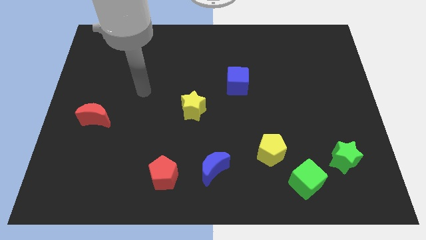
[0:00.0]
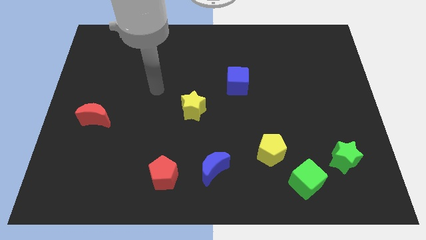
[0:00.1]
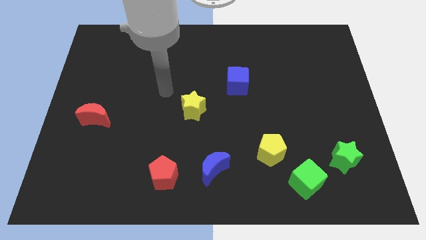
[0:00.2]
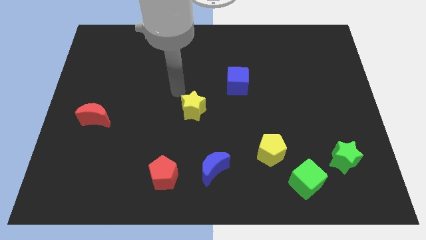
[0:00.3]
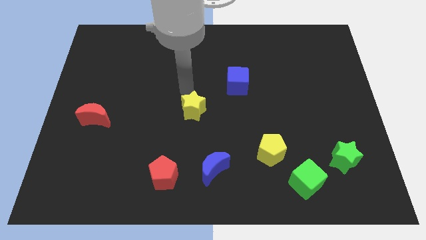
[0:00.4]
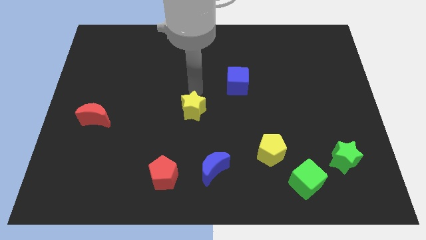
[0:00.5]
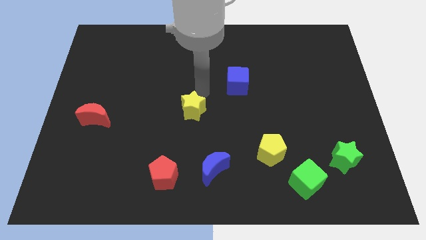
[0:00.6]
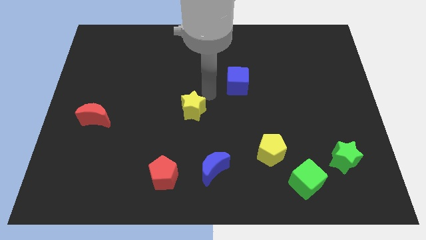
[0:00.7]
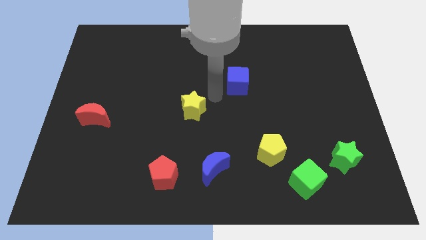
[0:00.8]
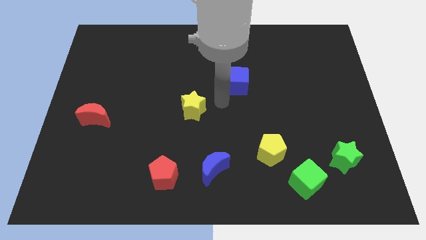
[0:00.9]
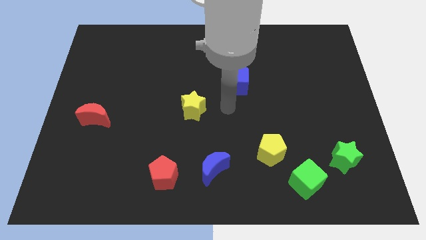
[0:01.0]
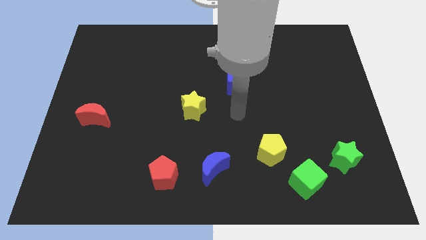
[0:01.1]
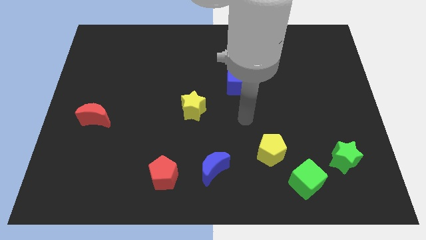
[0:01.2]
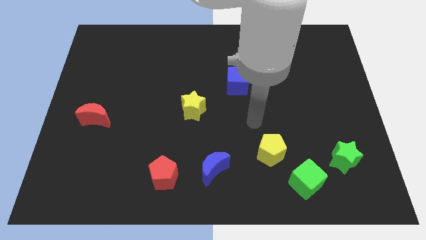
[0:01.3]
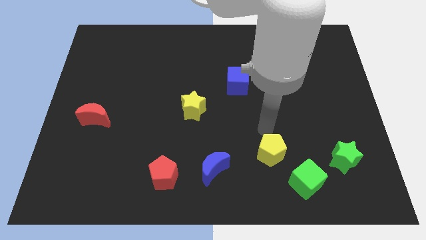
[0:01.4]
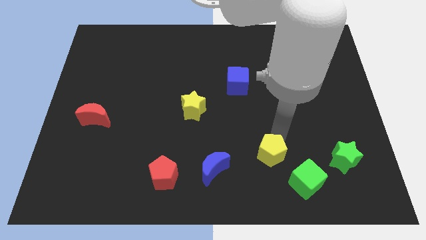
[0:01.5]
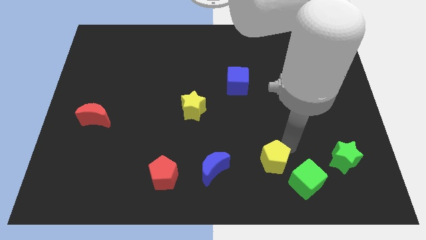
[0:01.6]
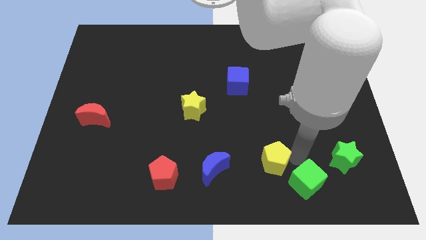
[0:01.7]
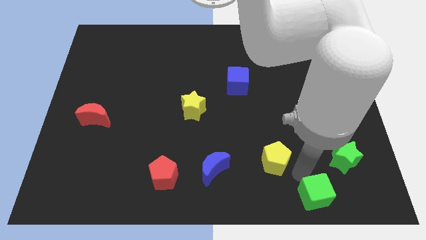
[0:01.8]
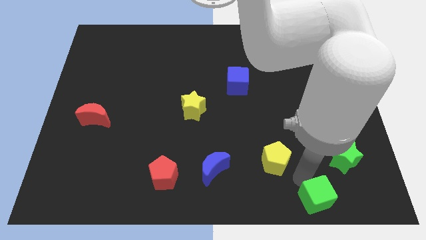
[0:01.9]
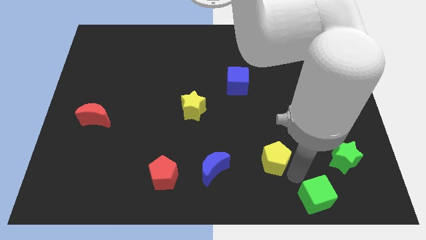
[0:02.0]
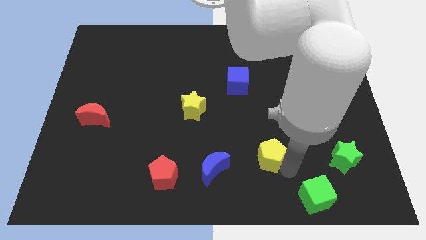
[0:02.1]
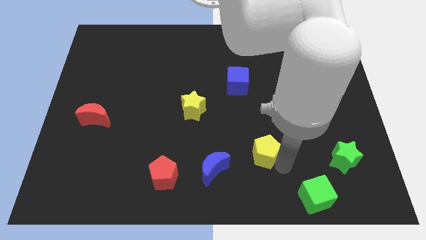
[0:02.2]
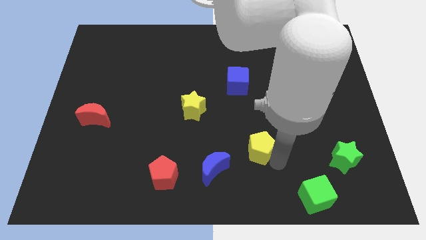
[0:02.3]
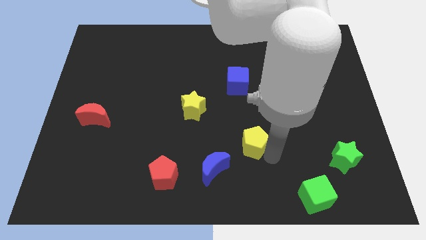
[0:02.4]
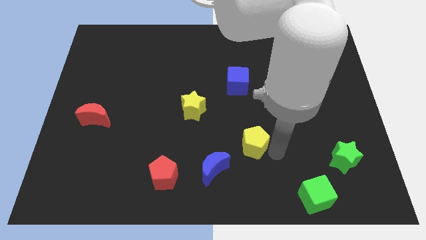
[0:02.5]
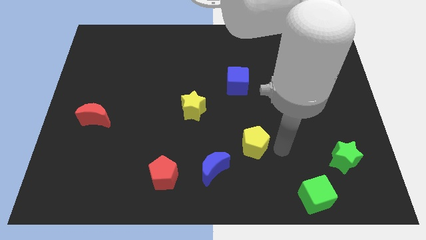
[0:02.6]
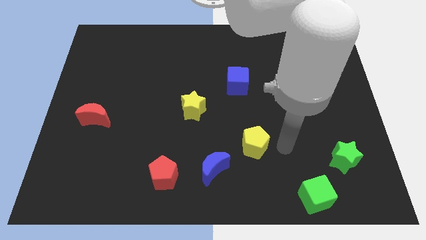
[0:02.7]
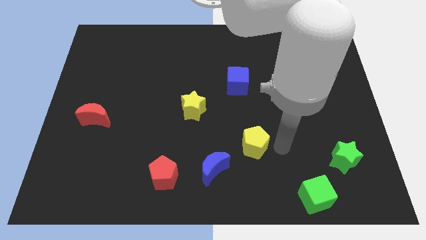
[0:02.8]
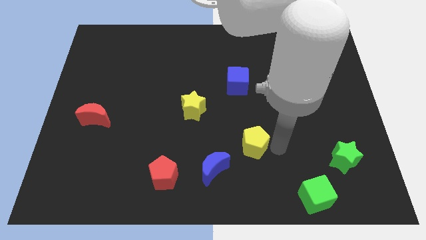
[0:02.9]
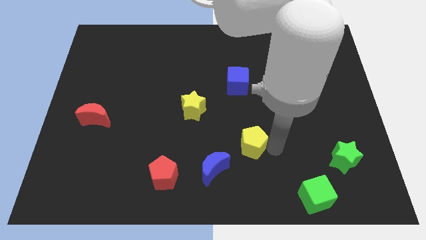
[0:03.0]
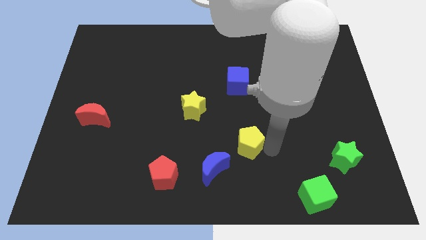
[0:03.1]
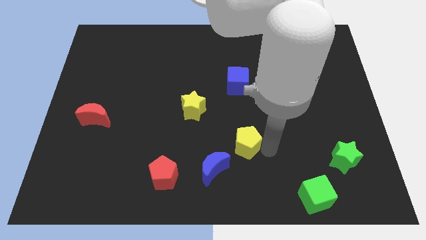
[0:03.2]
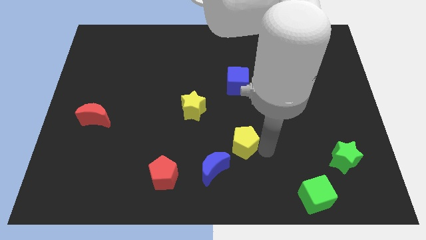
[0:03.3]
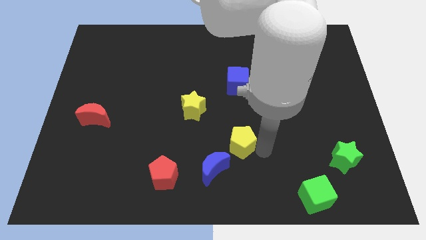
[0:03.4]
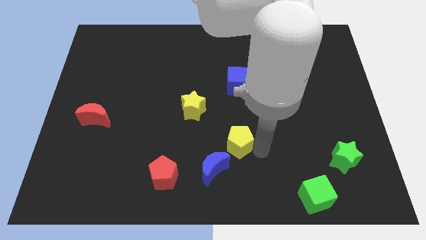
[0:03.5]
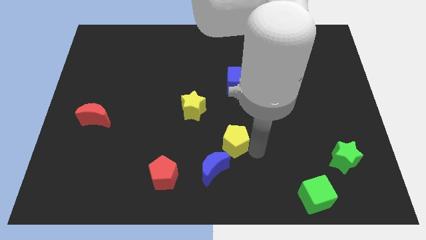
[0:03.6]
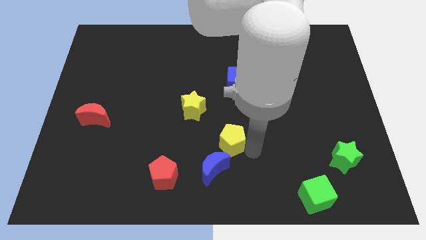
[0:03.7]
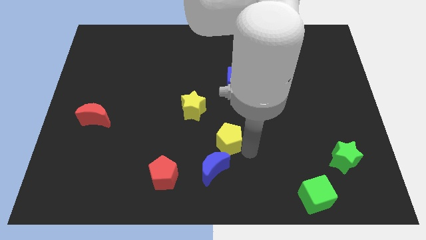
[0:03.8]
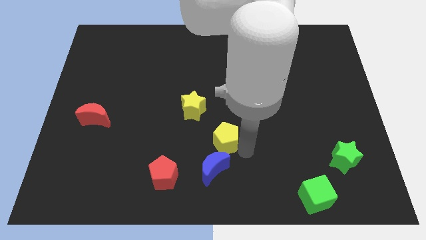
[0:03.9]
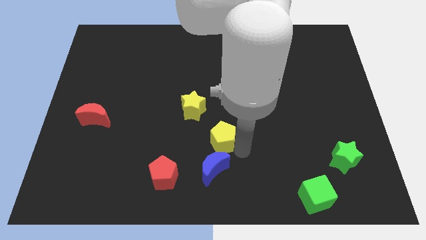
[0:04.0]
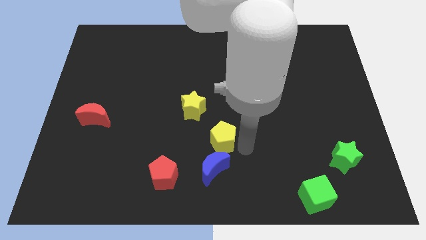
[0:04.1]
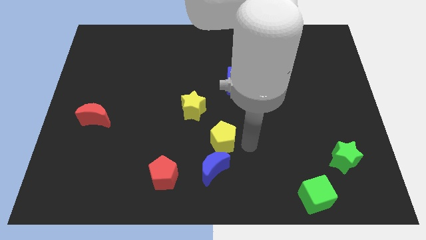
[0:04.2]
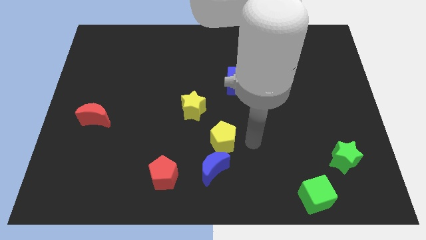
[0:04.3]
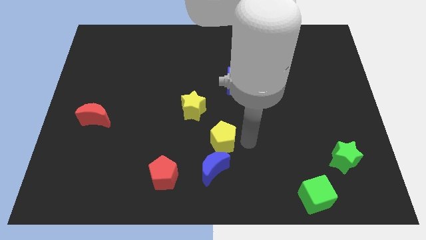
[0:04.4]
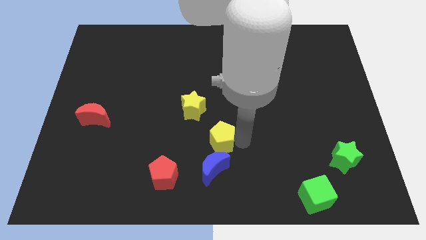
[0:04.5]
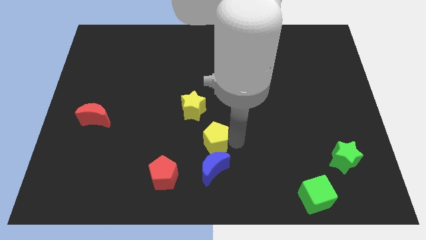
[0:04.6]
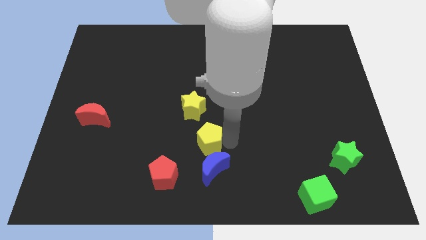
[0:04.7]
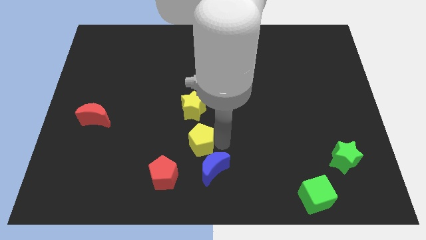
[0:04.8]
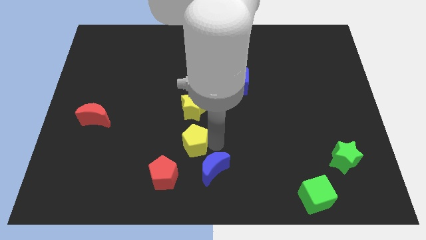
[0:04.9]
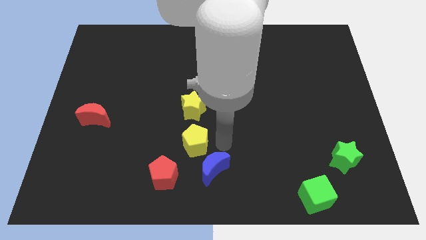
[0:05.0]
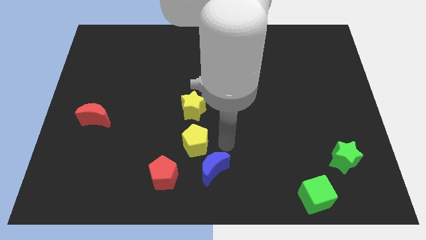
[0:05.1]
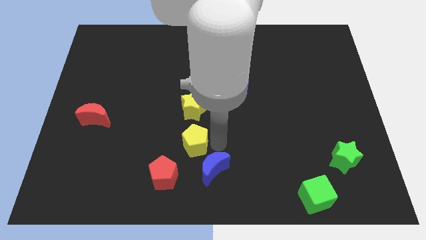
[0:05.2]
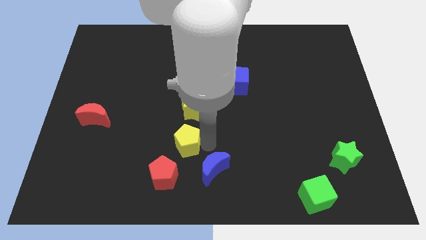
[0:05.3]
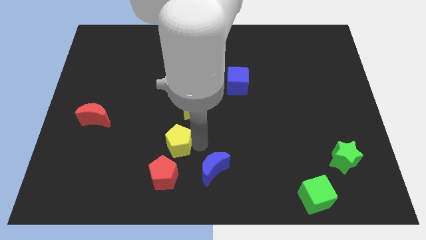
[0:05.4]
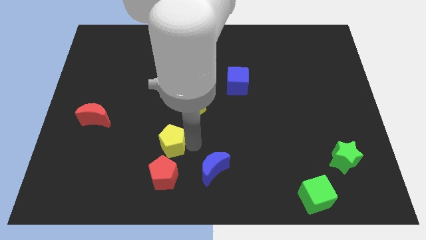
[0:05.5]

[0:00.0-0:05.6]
slide the yellow pentagon to the left

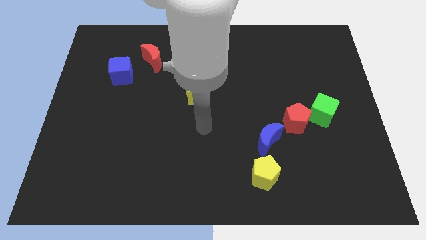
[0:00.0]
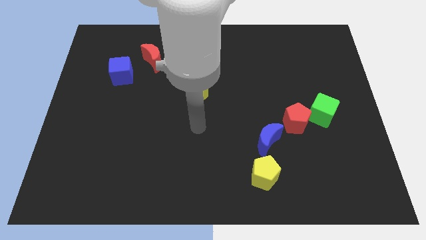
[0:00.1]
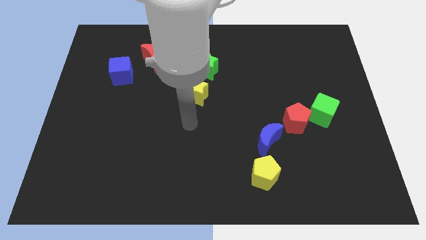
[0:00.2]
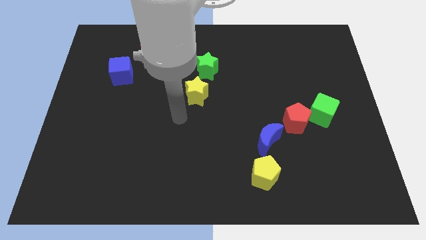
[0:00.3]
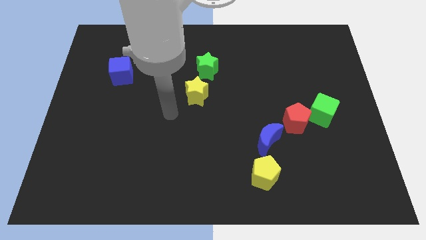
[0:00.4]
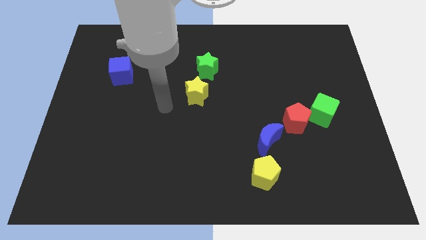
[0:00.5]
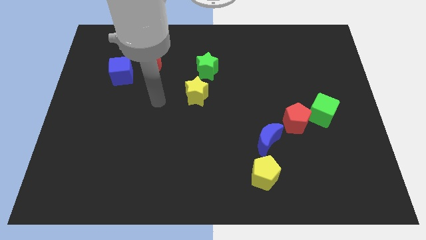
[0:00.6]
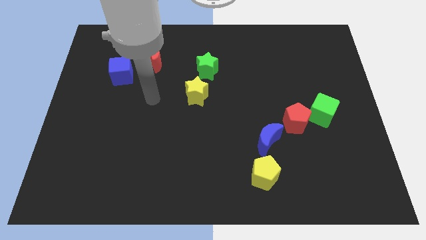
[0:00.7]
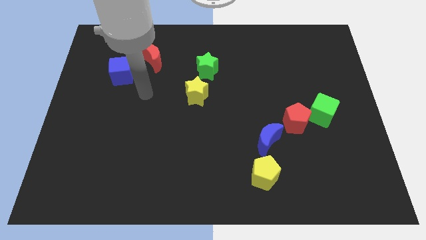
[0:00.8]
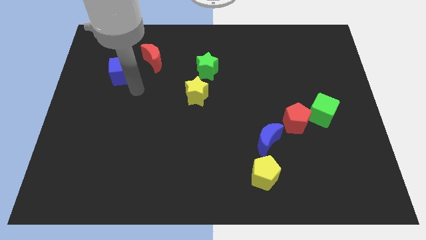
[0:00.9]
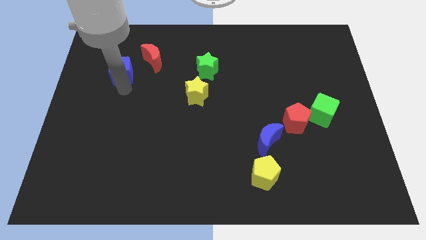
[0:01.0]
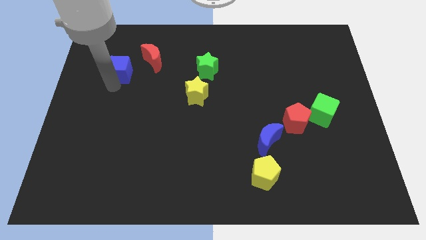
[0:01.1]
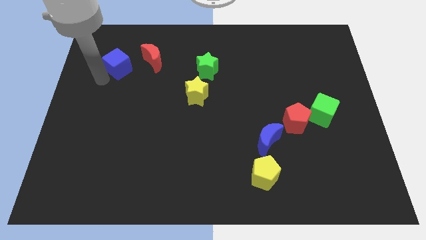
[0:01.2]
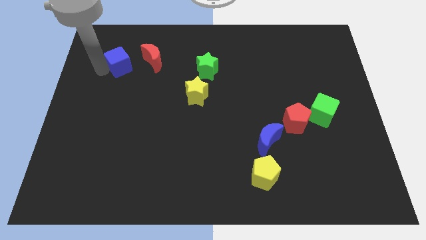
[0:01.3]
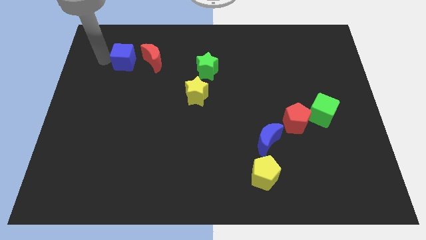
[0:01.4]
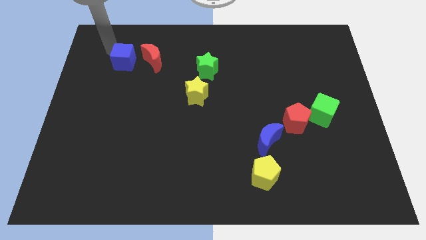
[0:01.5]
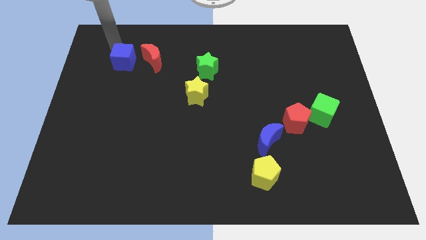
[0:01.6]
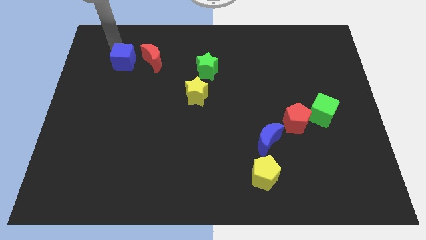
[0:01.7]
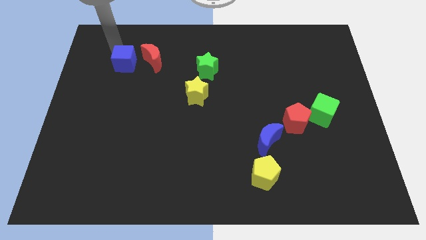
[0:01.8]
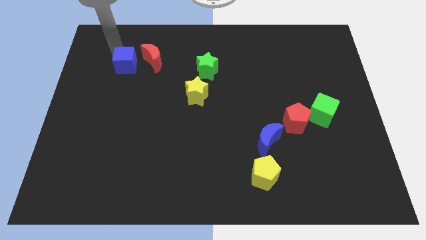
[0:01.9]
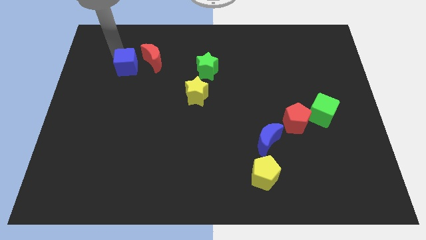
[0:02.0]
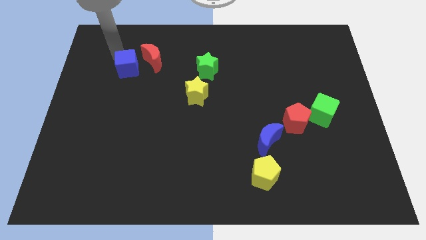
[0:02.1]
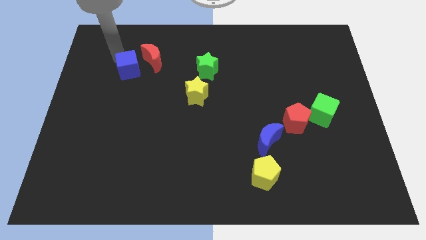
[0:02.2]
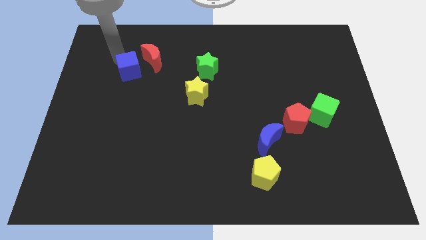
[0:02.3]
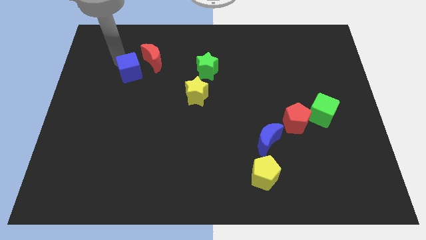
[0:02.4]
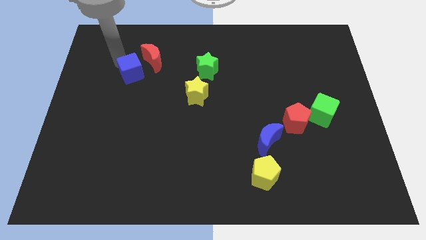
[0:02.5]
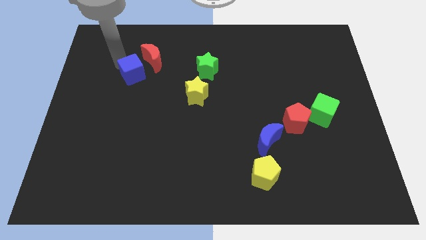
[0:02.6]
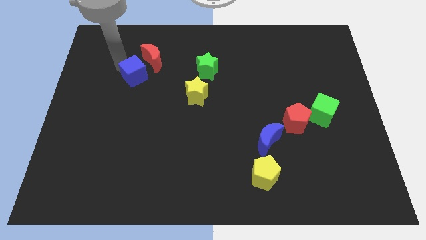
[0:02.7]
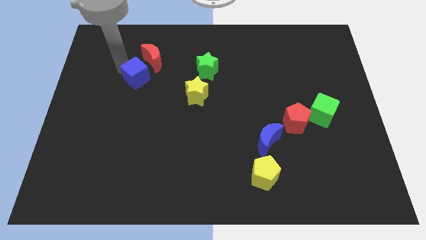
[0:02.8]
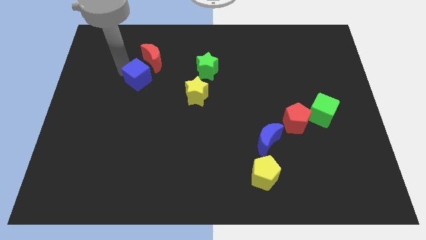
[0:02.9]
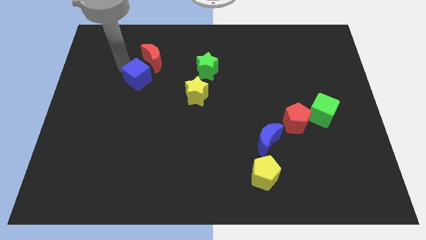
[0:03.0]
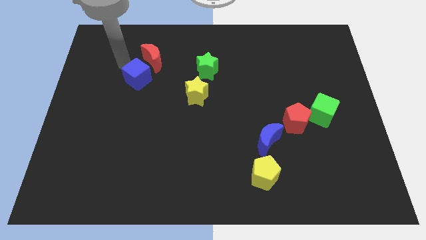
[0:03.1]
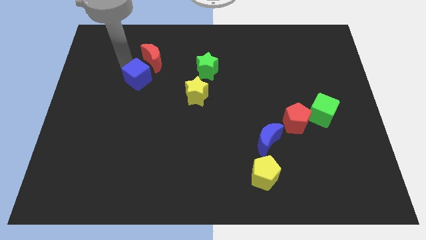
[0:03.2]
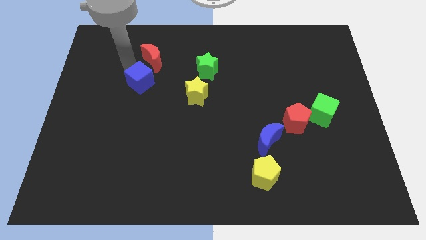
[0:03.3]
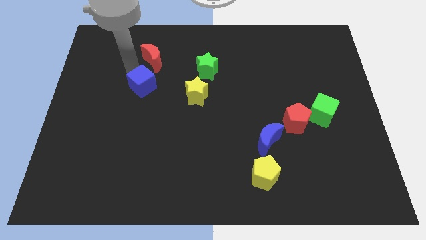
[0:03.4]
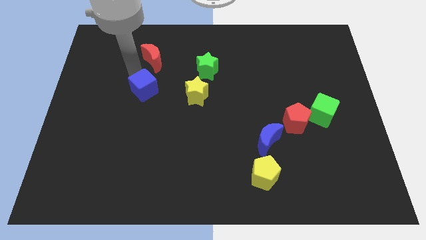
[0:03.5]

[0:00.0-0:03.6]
slightly push the blue cube downwards and then right
